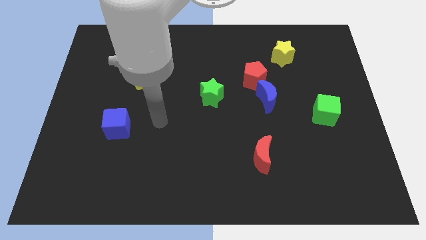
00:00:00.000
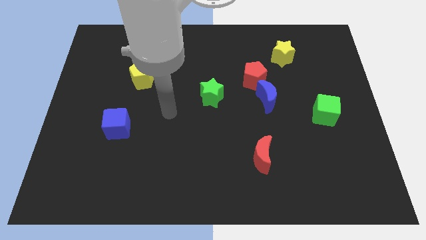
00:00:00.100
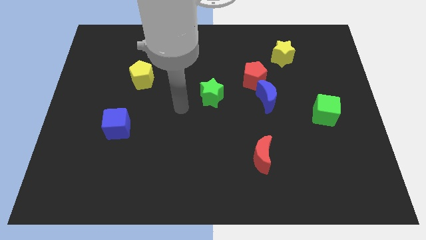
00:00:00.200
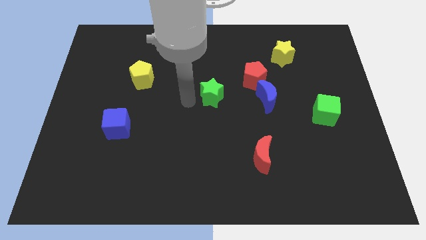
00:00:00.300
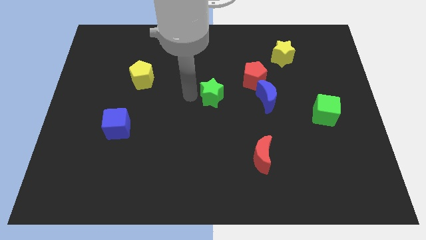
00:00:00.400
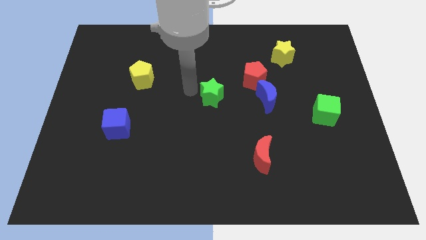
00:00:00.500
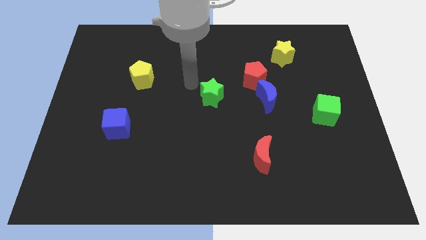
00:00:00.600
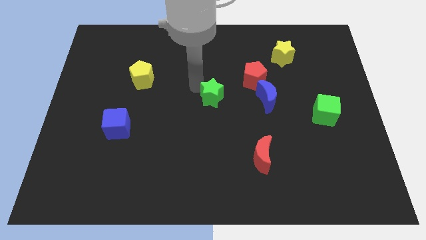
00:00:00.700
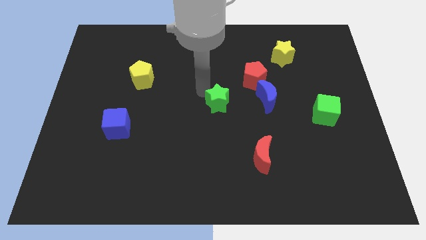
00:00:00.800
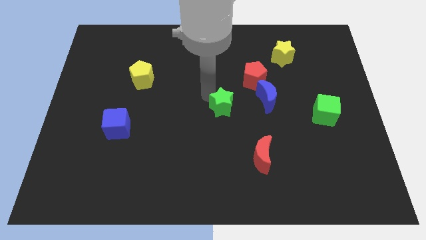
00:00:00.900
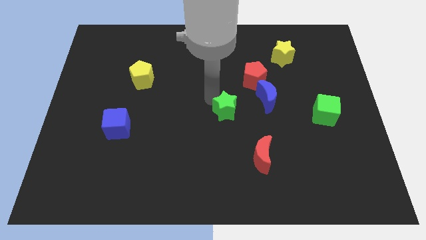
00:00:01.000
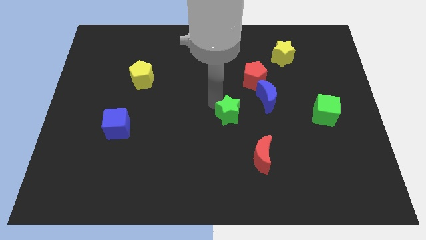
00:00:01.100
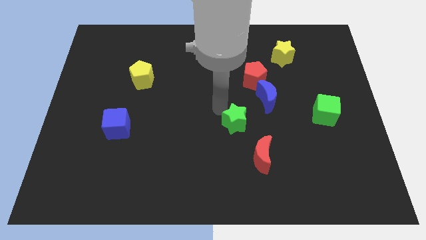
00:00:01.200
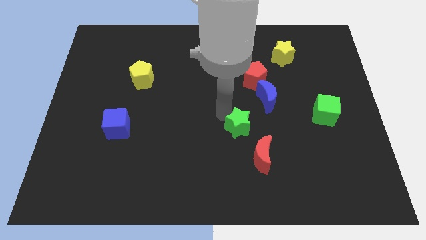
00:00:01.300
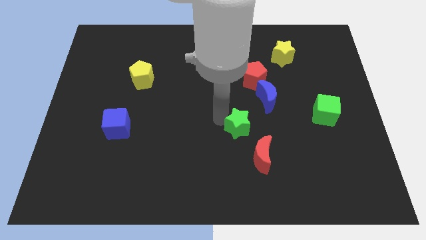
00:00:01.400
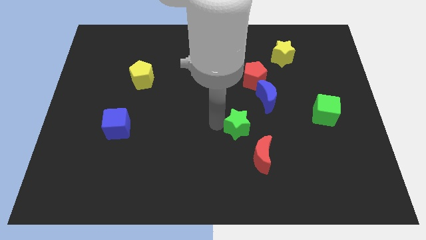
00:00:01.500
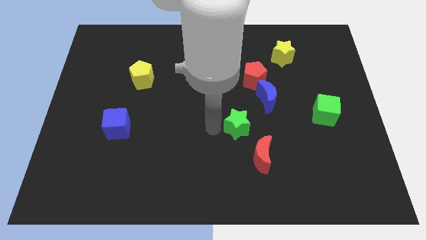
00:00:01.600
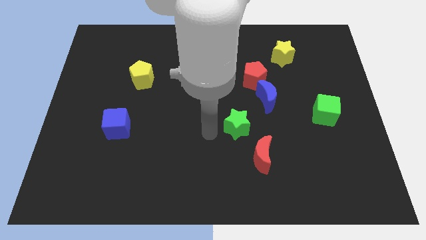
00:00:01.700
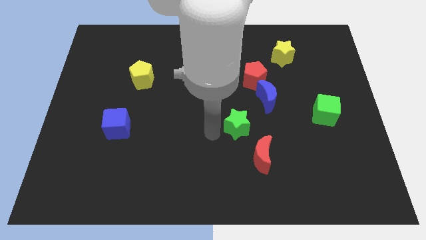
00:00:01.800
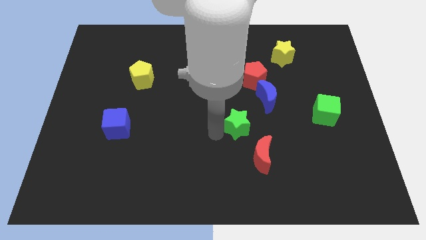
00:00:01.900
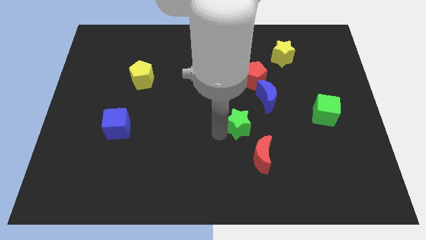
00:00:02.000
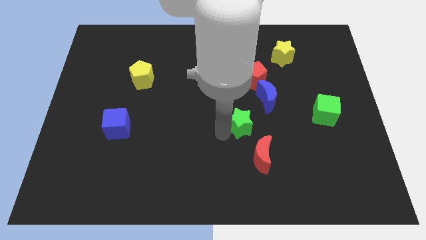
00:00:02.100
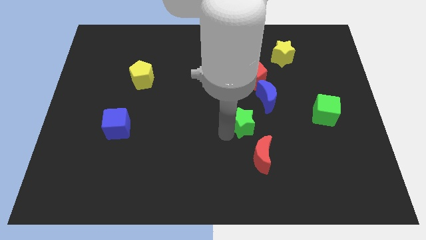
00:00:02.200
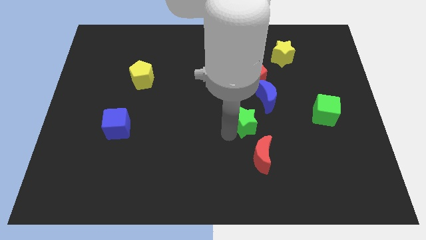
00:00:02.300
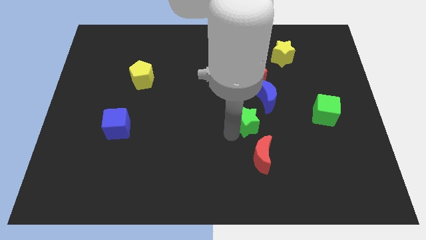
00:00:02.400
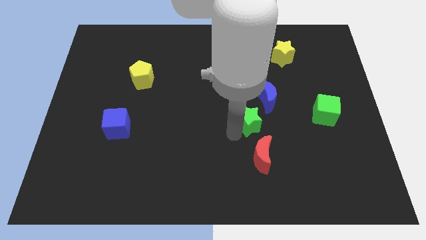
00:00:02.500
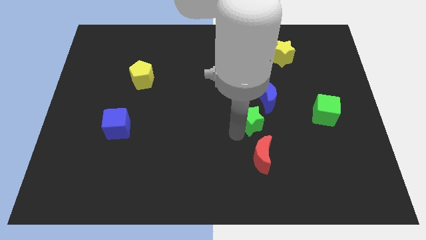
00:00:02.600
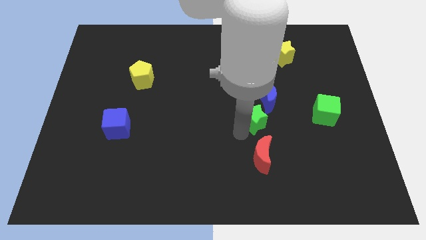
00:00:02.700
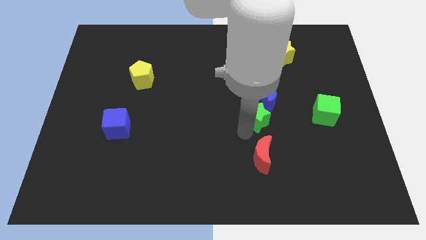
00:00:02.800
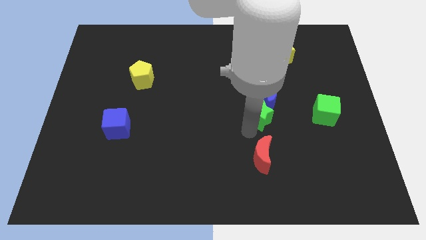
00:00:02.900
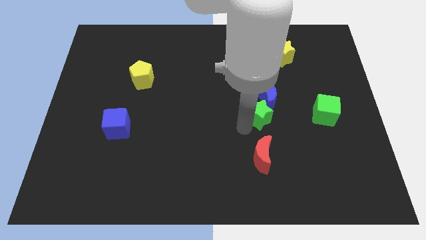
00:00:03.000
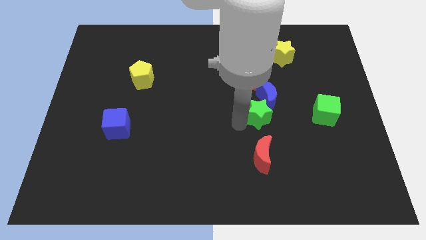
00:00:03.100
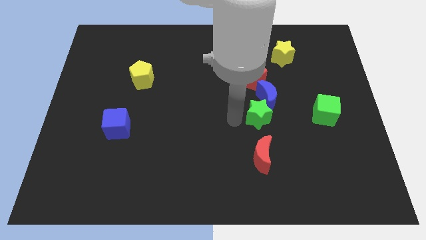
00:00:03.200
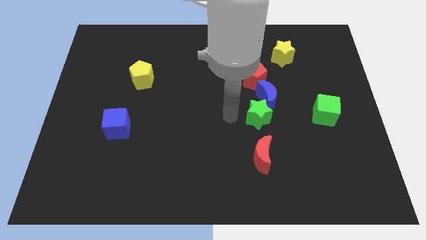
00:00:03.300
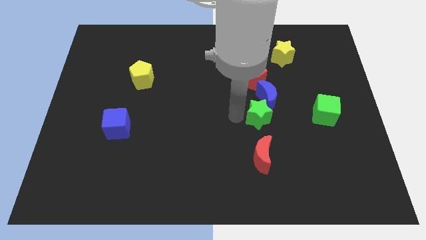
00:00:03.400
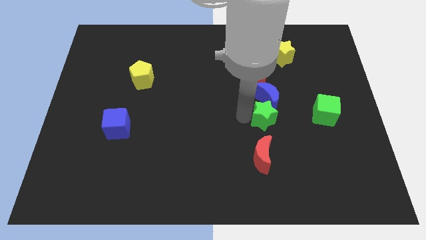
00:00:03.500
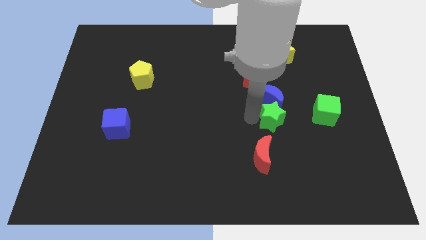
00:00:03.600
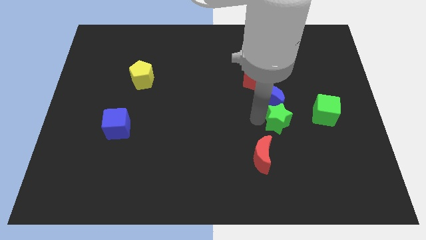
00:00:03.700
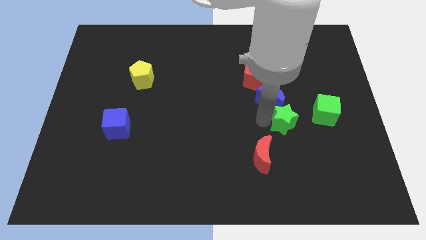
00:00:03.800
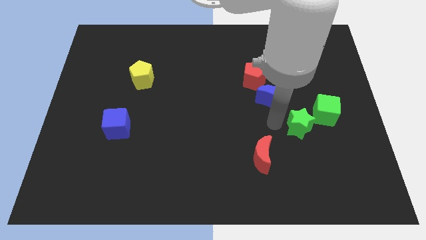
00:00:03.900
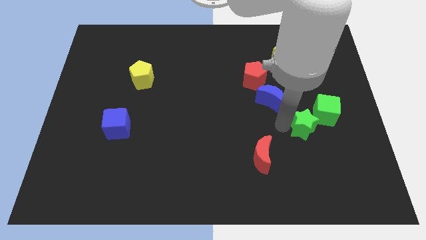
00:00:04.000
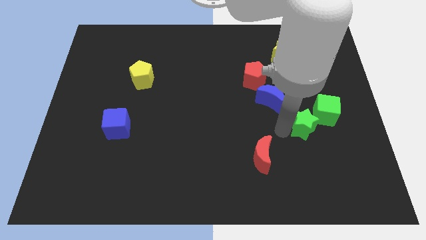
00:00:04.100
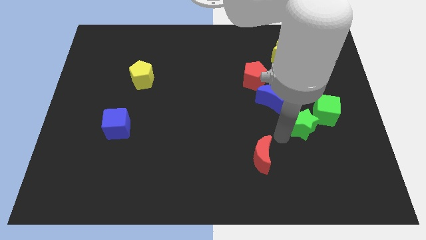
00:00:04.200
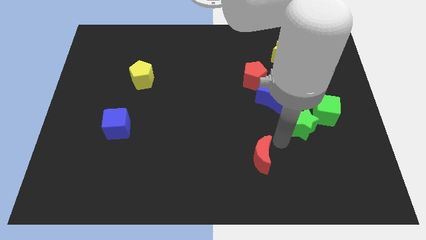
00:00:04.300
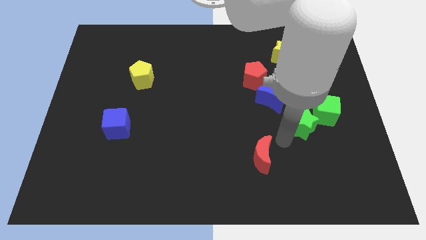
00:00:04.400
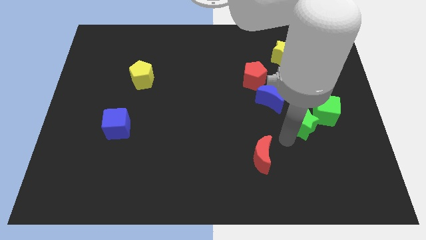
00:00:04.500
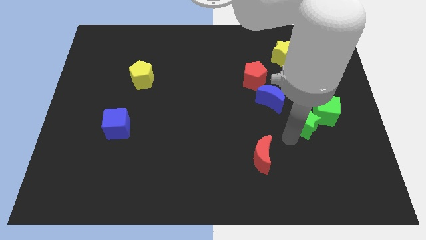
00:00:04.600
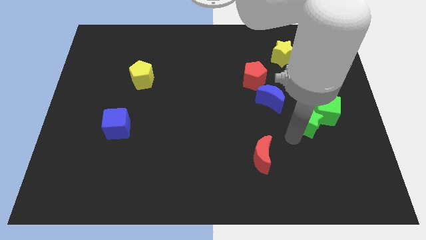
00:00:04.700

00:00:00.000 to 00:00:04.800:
push the green star to the green cube

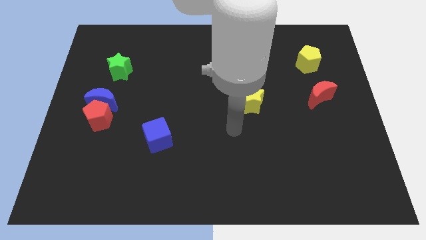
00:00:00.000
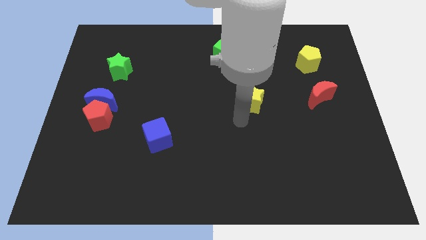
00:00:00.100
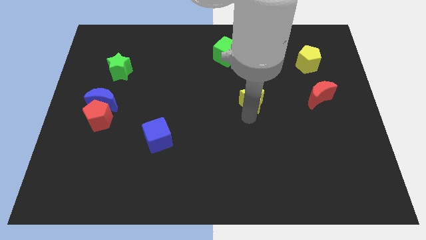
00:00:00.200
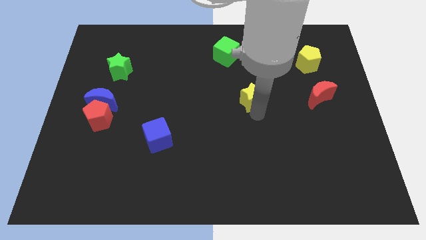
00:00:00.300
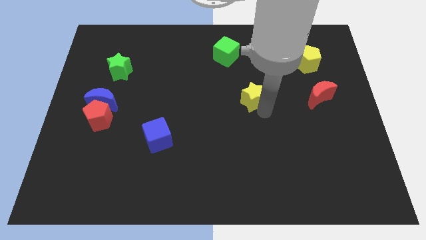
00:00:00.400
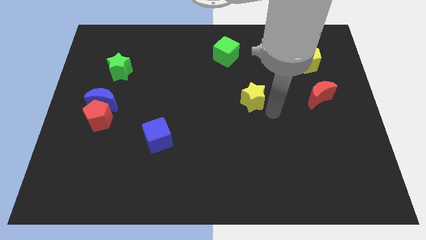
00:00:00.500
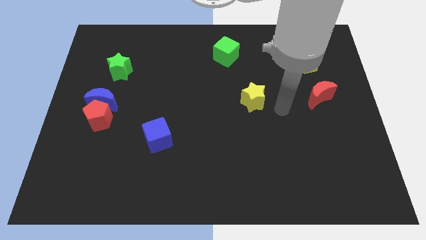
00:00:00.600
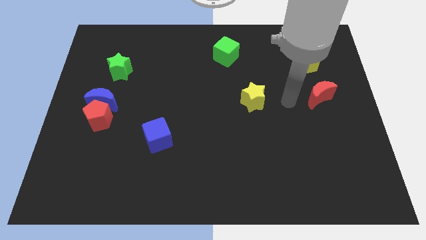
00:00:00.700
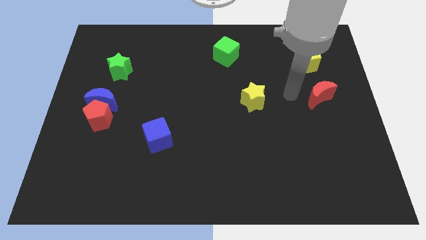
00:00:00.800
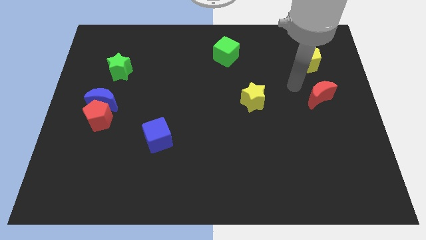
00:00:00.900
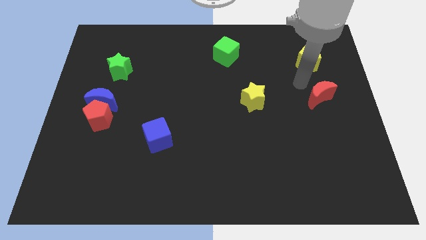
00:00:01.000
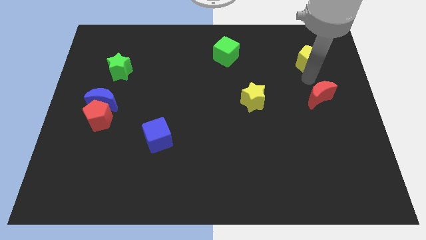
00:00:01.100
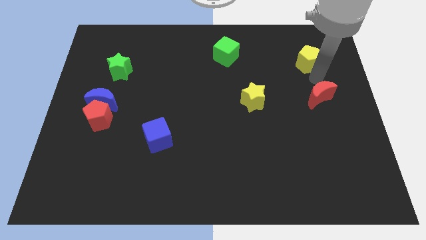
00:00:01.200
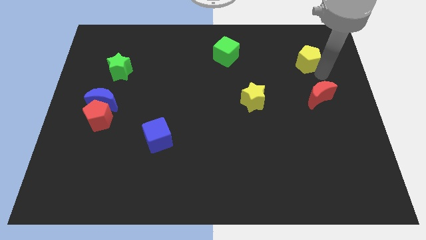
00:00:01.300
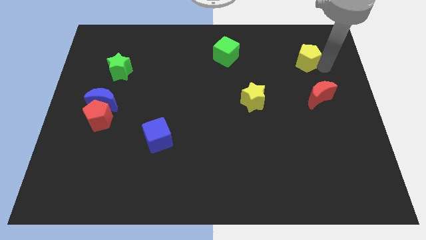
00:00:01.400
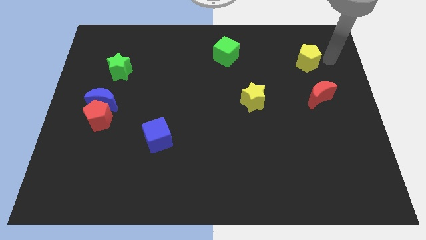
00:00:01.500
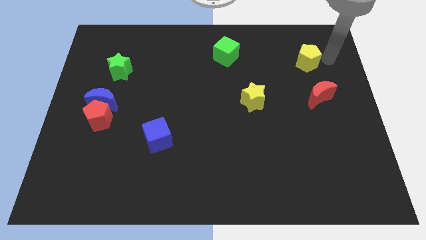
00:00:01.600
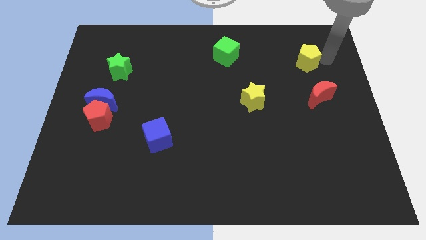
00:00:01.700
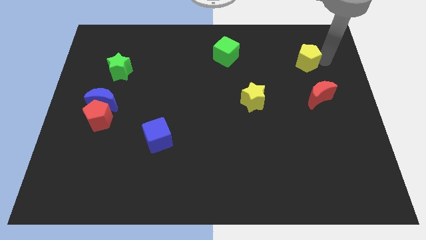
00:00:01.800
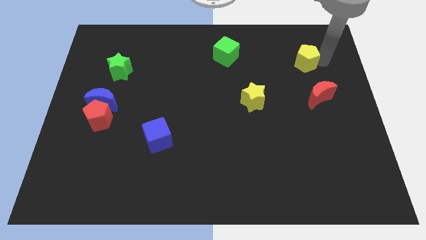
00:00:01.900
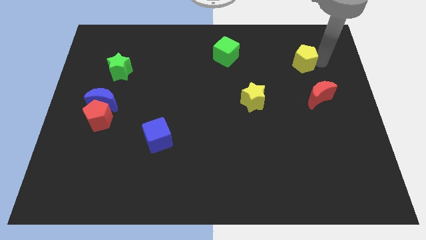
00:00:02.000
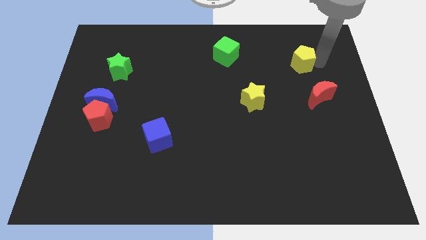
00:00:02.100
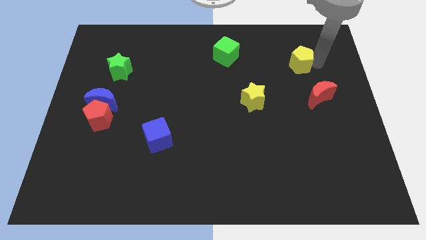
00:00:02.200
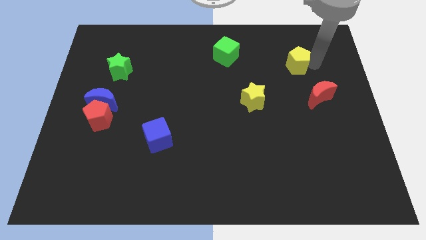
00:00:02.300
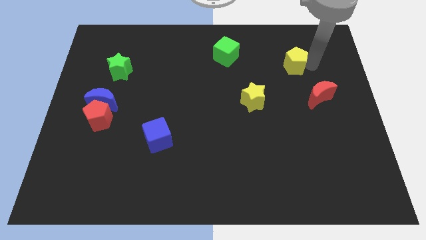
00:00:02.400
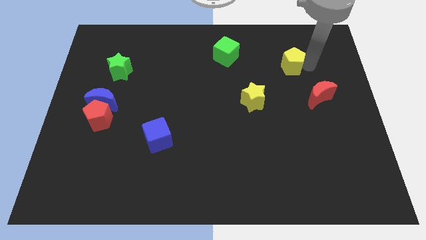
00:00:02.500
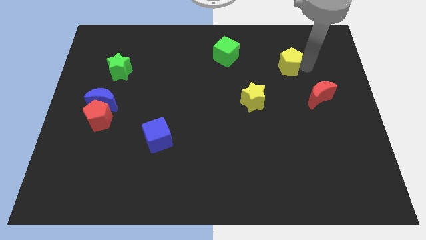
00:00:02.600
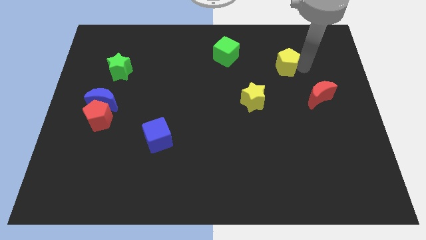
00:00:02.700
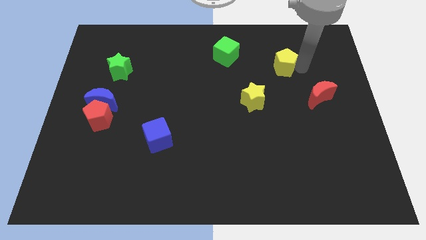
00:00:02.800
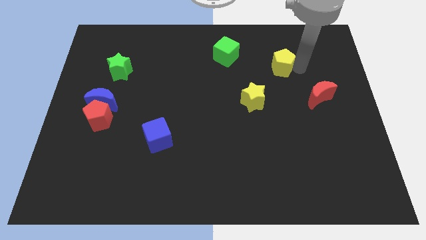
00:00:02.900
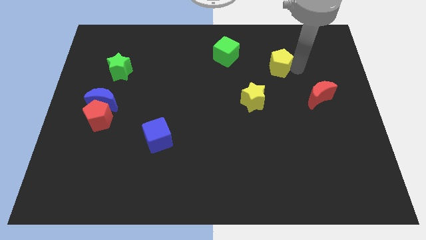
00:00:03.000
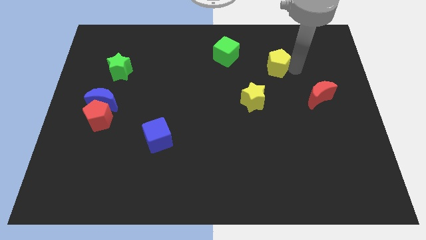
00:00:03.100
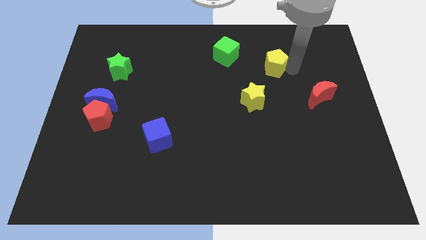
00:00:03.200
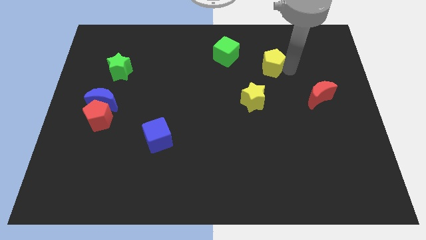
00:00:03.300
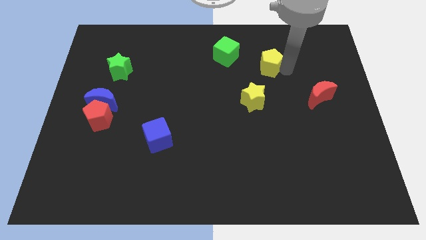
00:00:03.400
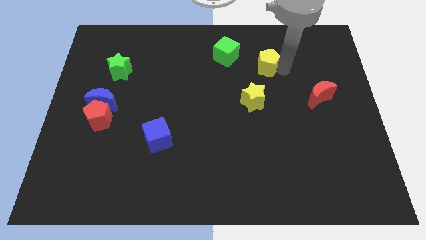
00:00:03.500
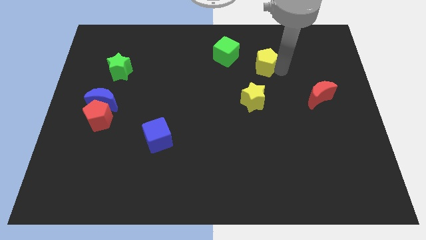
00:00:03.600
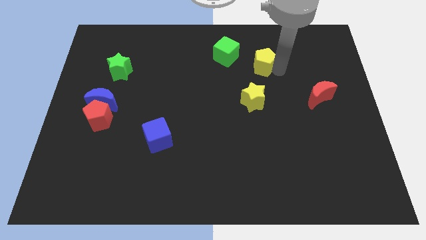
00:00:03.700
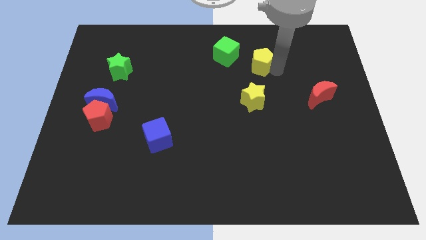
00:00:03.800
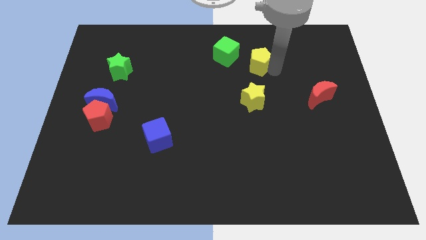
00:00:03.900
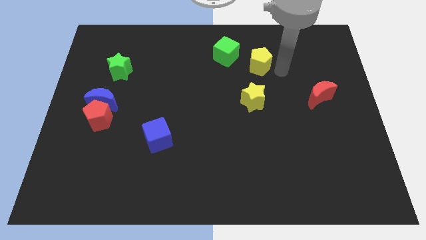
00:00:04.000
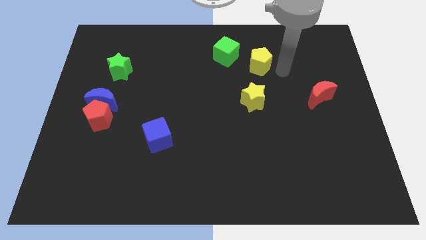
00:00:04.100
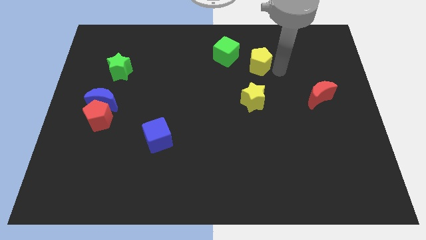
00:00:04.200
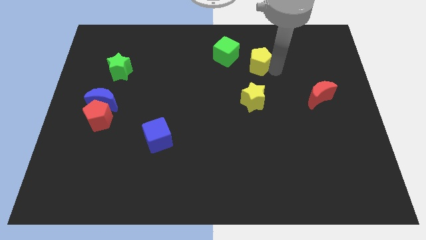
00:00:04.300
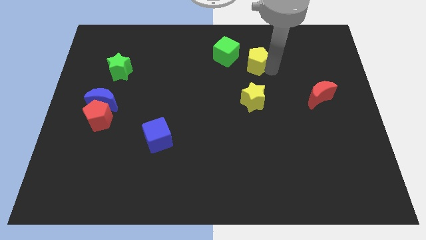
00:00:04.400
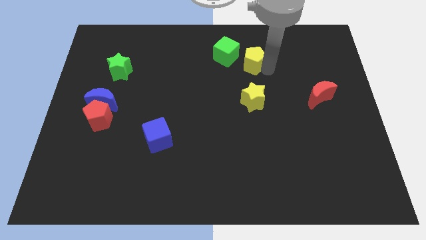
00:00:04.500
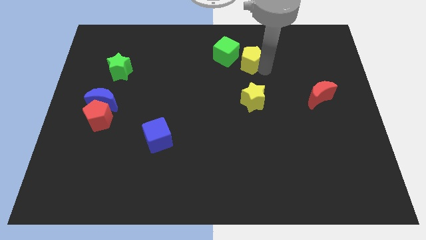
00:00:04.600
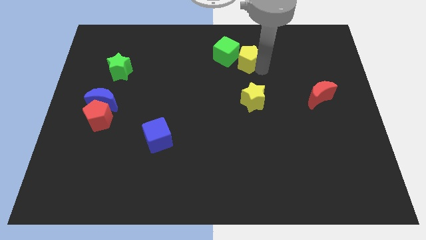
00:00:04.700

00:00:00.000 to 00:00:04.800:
push the yellow pentagon next to the green cube
